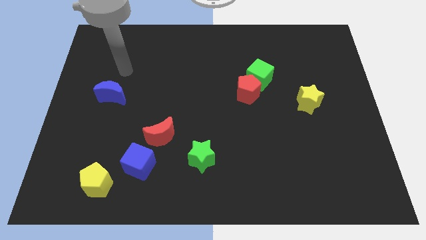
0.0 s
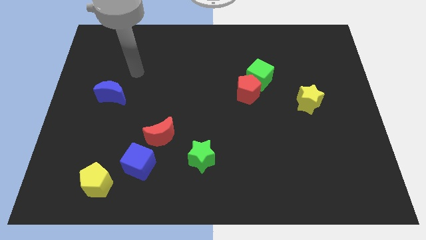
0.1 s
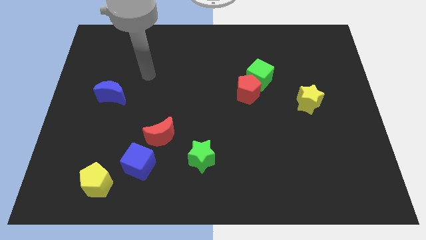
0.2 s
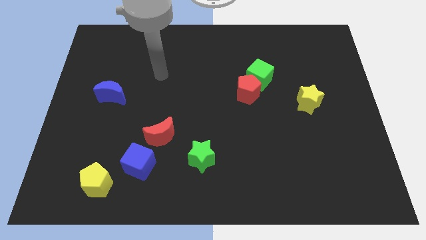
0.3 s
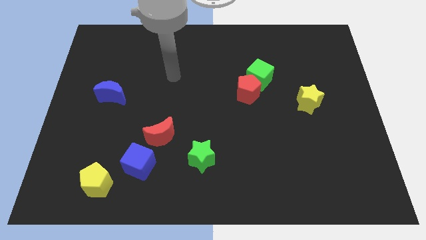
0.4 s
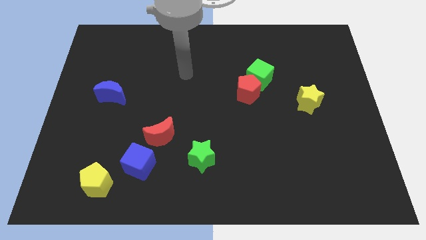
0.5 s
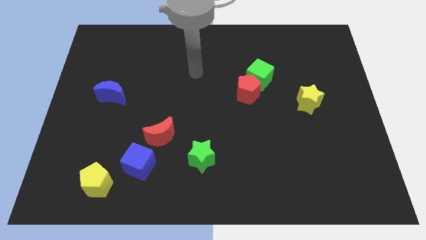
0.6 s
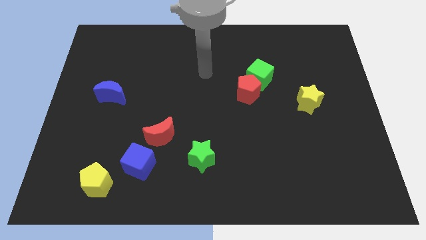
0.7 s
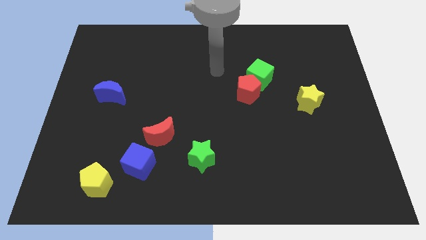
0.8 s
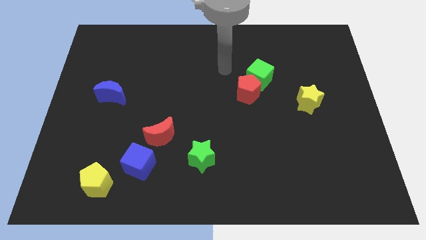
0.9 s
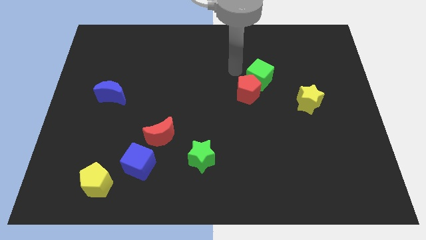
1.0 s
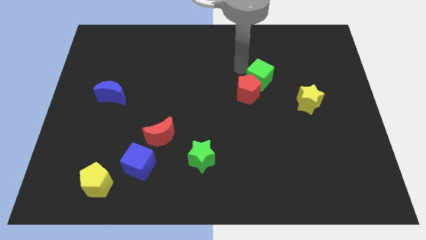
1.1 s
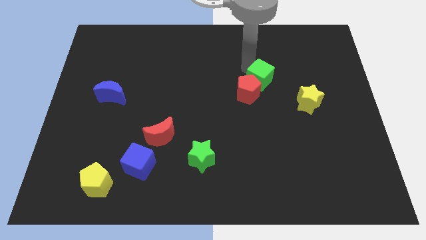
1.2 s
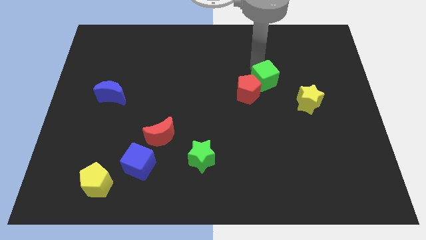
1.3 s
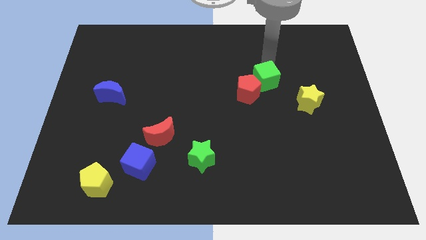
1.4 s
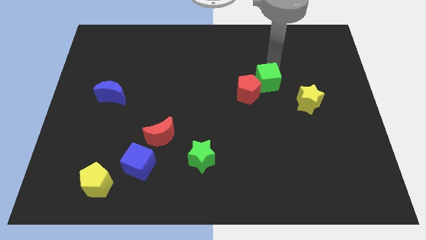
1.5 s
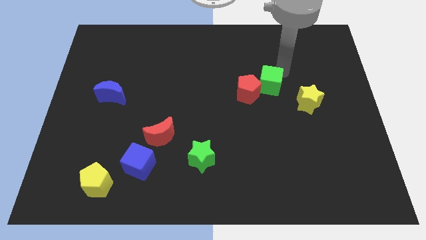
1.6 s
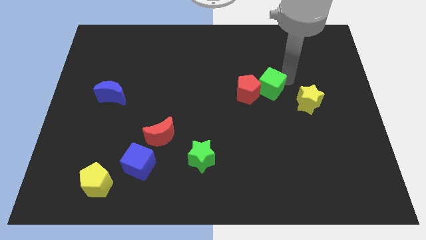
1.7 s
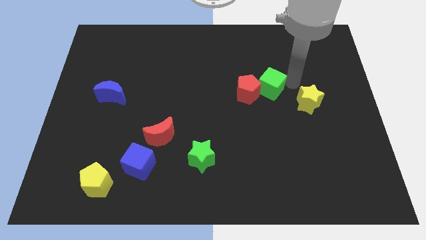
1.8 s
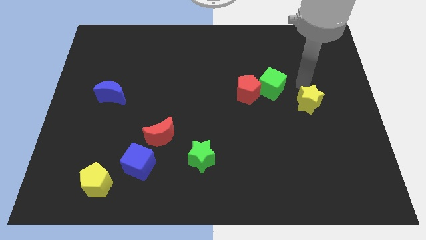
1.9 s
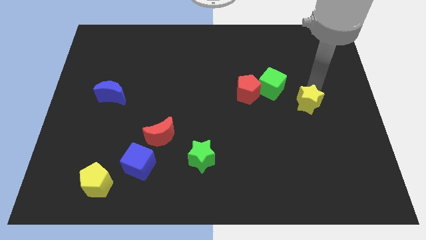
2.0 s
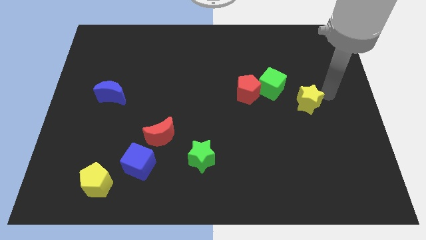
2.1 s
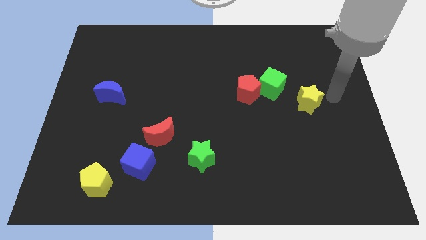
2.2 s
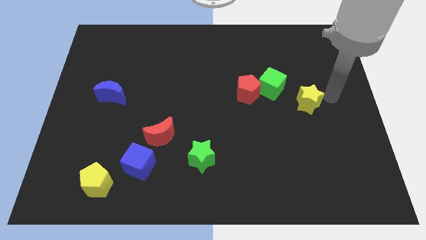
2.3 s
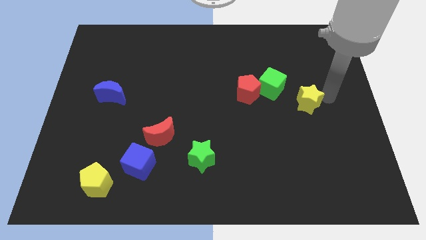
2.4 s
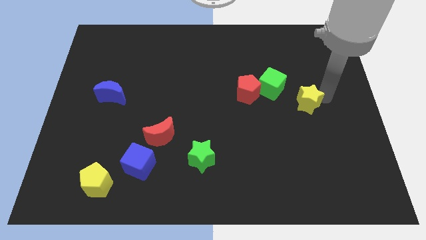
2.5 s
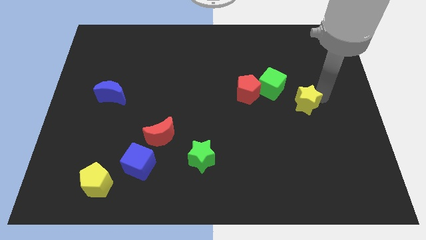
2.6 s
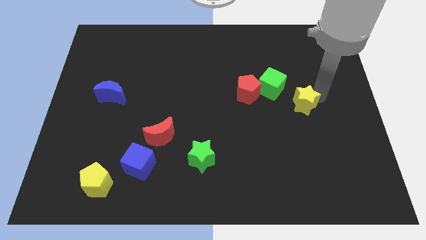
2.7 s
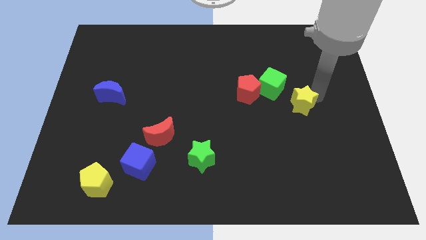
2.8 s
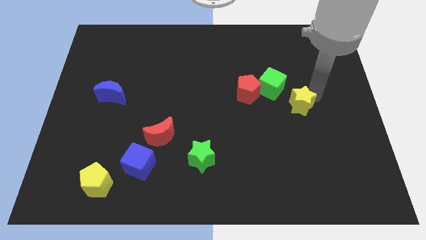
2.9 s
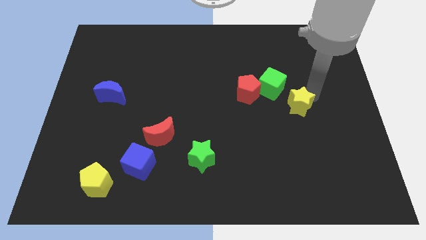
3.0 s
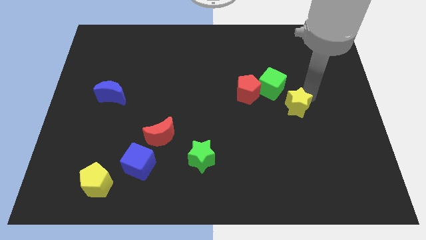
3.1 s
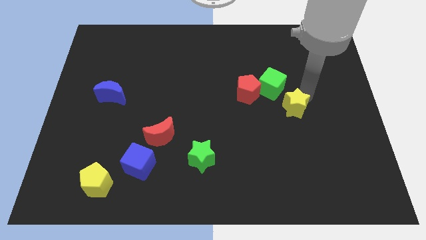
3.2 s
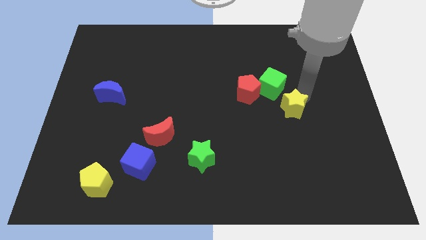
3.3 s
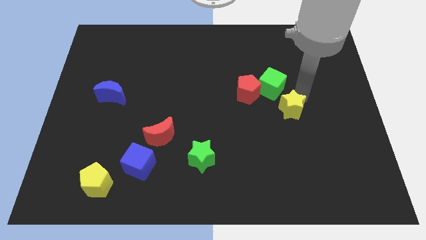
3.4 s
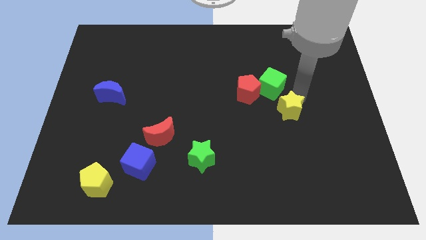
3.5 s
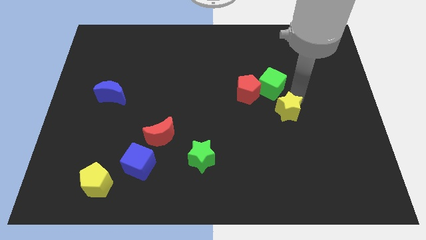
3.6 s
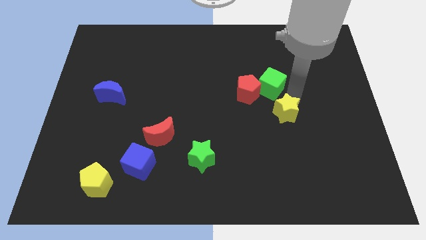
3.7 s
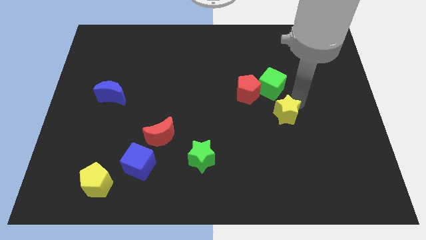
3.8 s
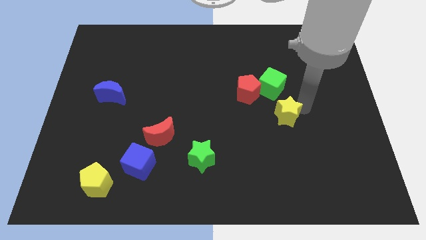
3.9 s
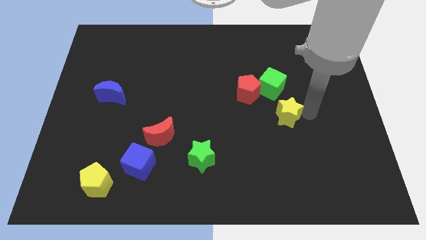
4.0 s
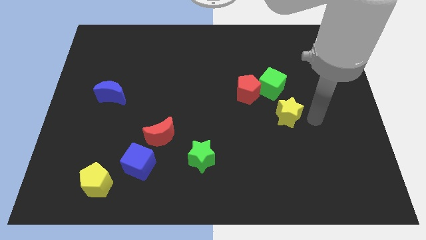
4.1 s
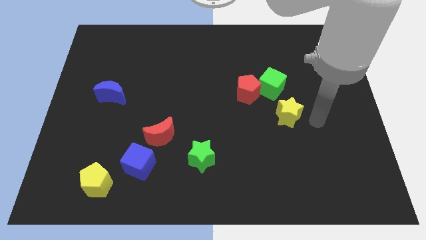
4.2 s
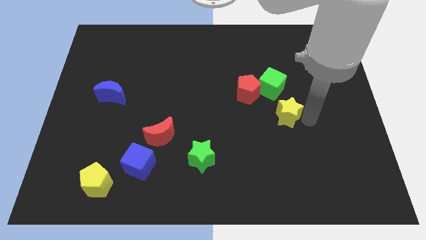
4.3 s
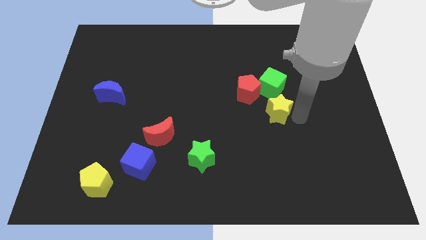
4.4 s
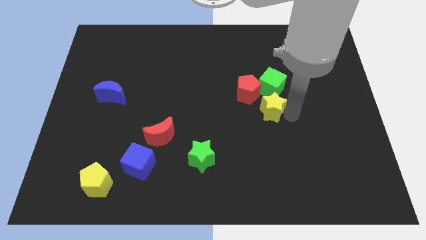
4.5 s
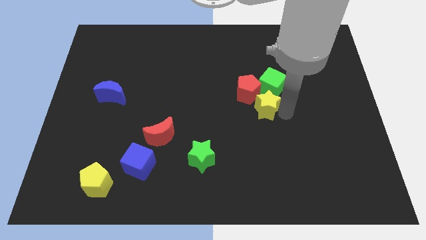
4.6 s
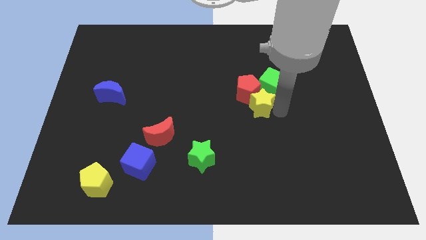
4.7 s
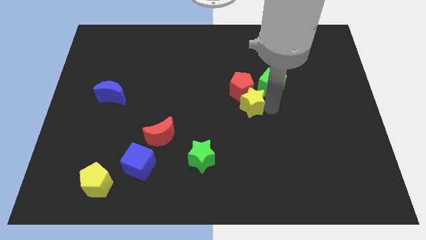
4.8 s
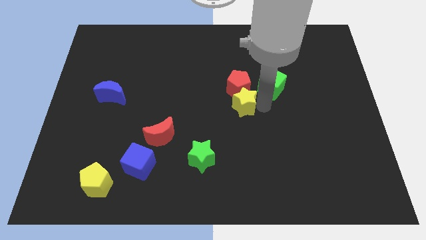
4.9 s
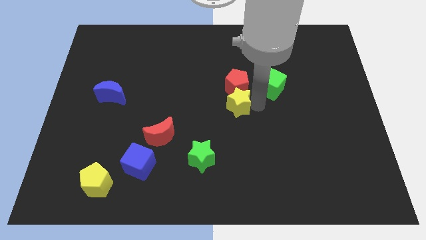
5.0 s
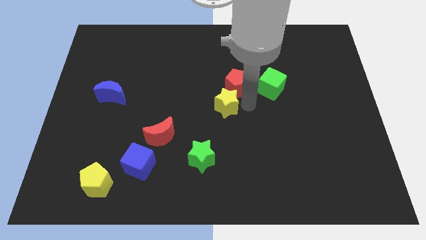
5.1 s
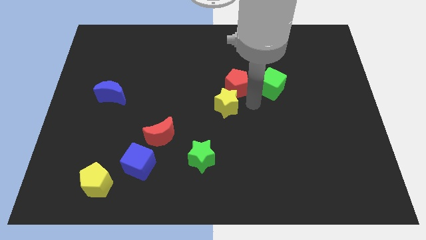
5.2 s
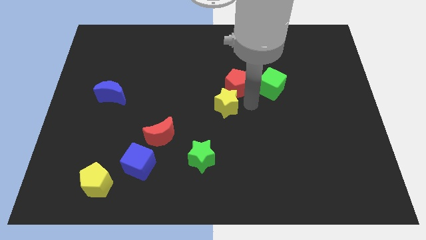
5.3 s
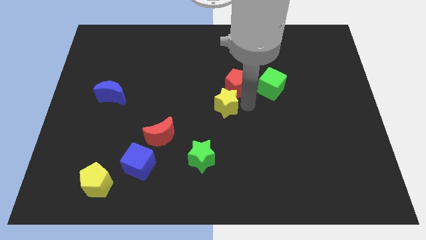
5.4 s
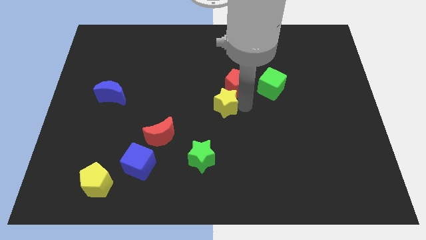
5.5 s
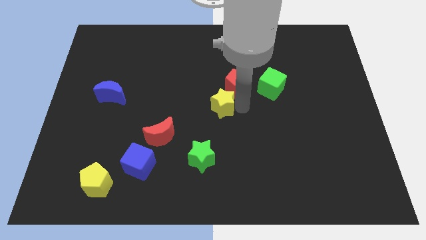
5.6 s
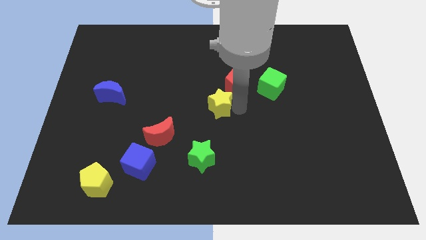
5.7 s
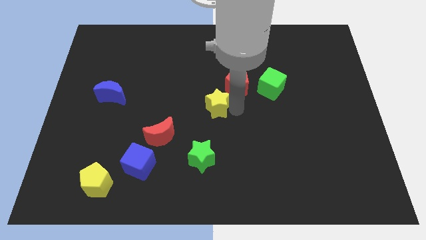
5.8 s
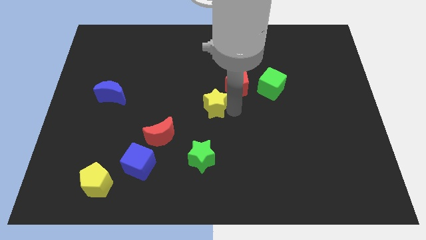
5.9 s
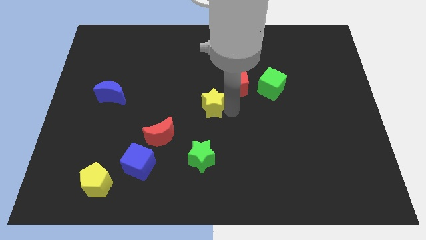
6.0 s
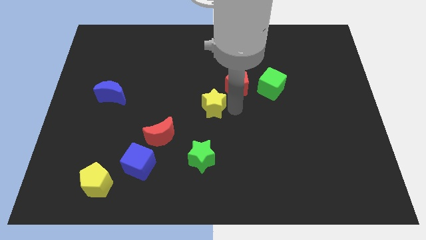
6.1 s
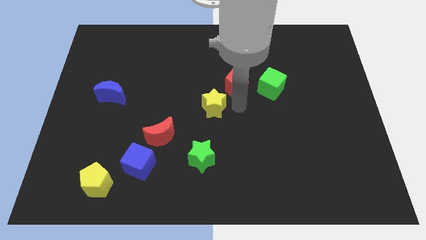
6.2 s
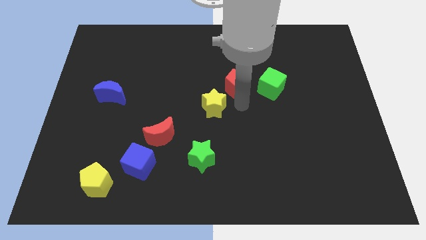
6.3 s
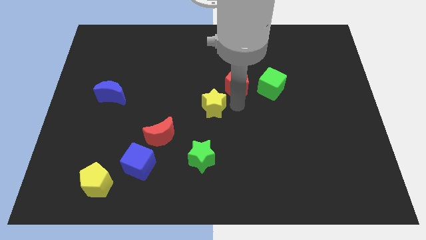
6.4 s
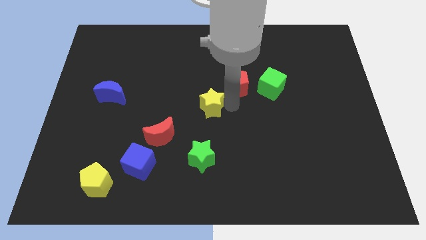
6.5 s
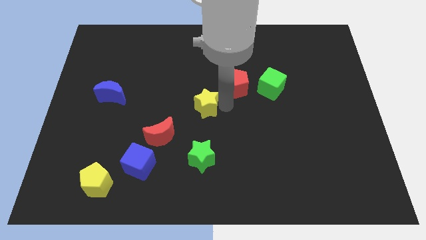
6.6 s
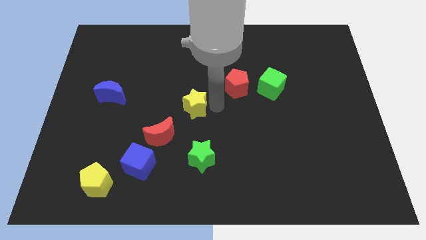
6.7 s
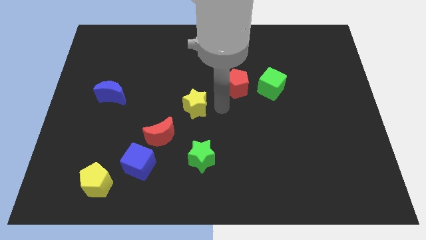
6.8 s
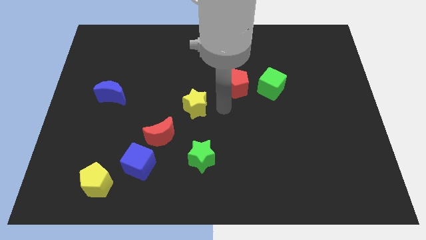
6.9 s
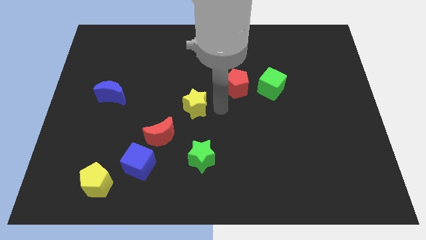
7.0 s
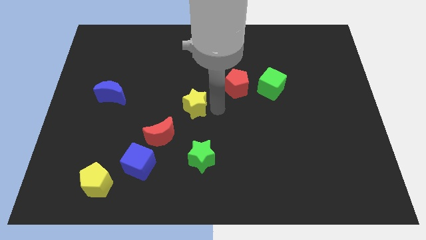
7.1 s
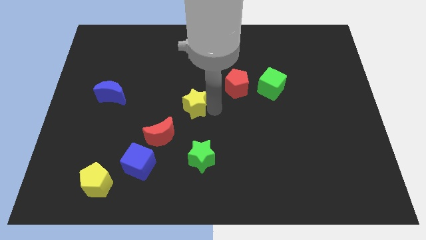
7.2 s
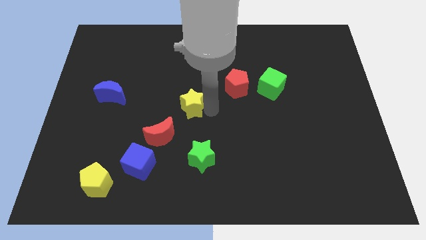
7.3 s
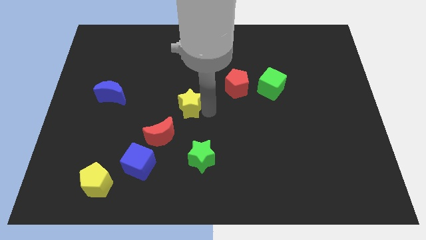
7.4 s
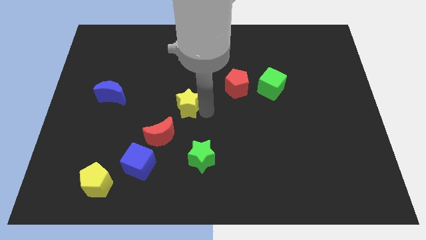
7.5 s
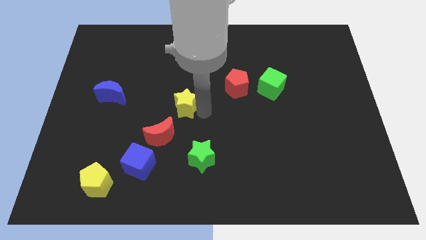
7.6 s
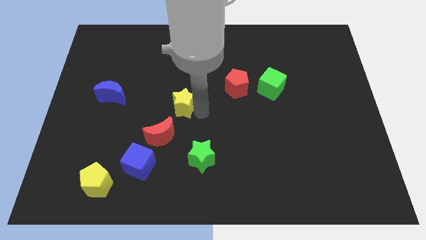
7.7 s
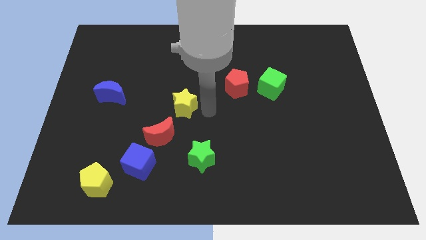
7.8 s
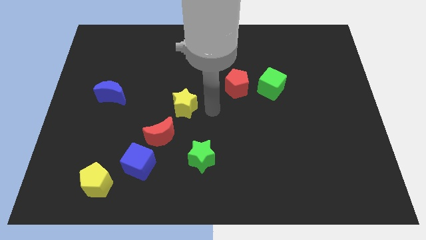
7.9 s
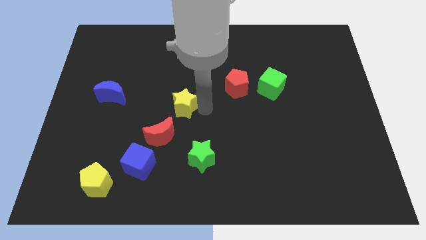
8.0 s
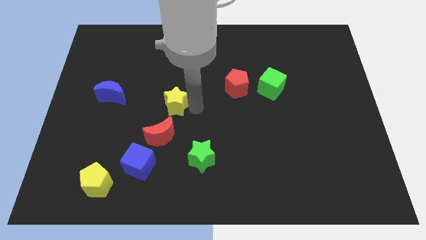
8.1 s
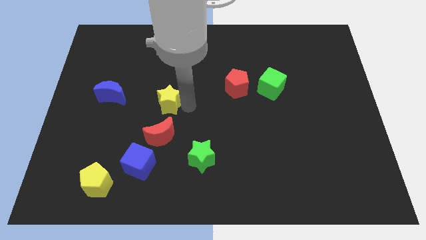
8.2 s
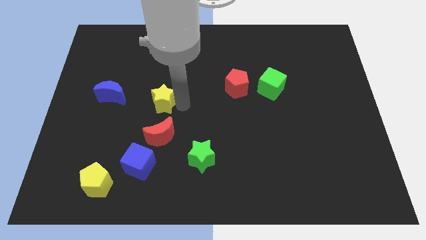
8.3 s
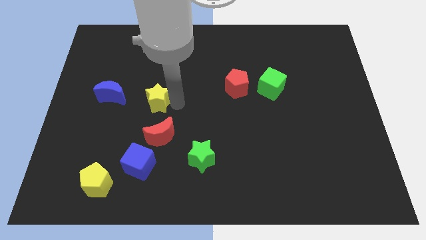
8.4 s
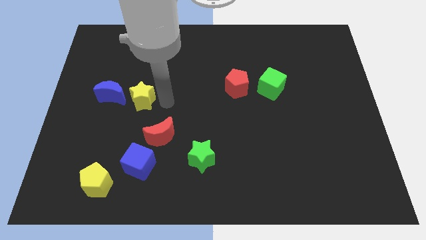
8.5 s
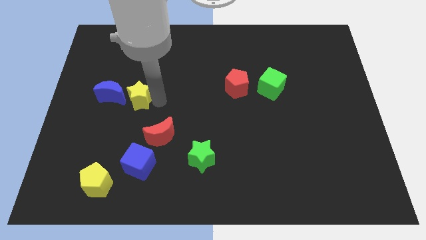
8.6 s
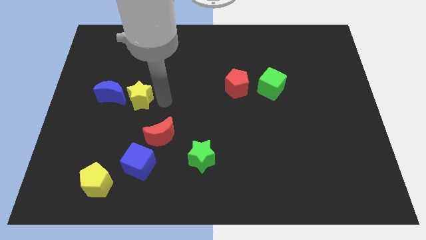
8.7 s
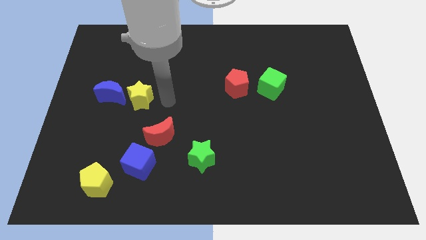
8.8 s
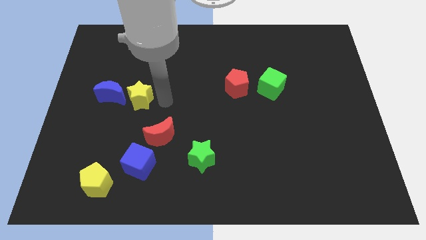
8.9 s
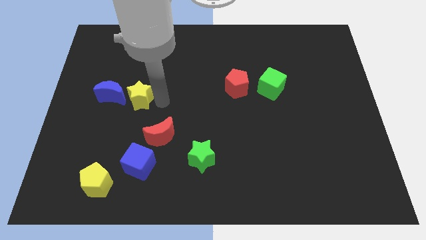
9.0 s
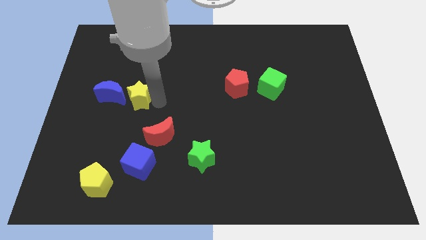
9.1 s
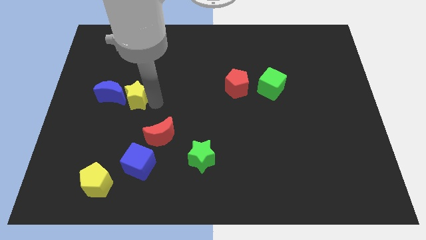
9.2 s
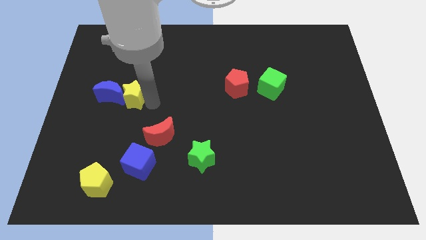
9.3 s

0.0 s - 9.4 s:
slide the yellow star to the blue moon
